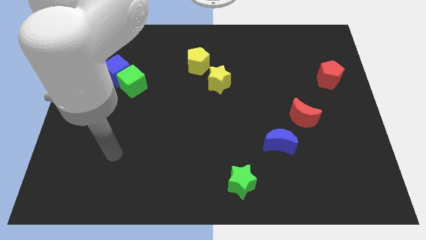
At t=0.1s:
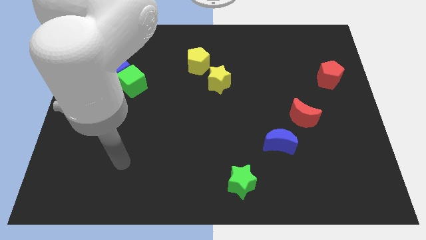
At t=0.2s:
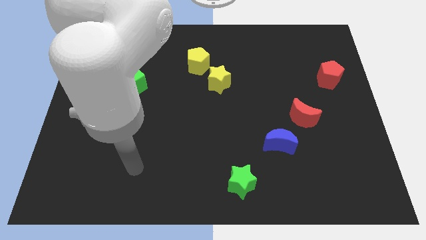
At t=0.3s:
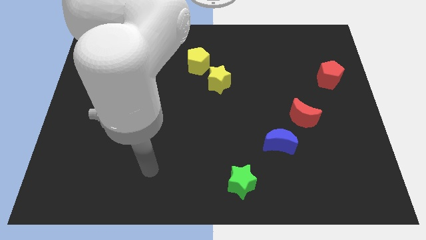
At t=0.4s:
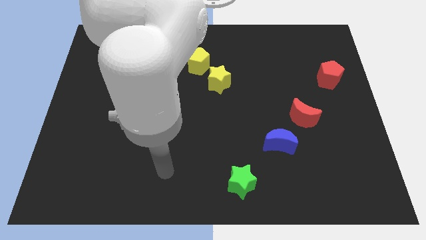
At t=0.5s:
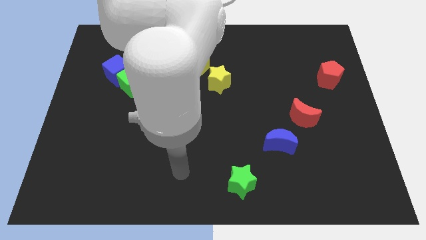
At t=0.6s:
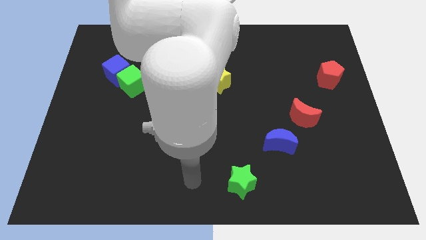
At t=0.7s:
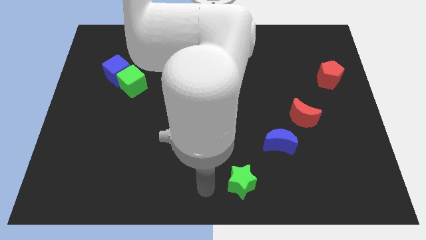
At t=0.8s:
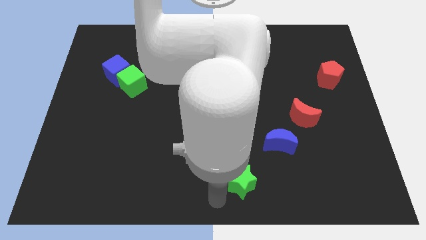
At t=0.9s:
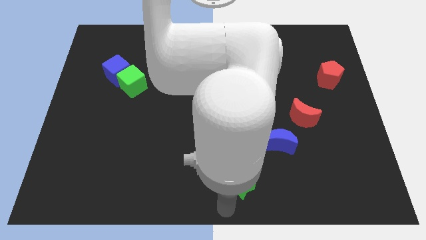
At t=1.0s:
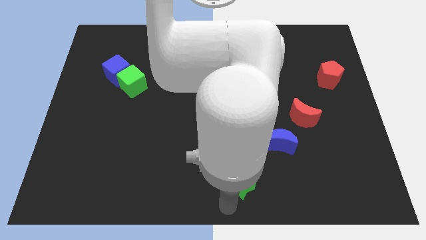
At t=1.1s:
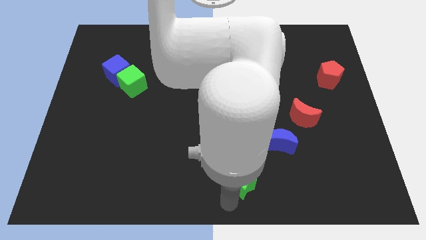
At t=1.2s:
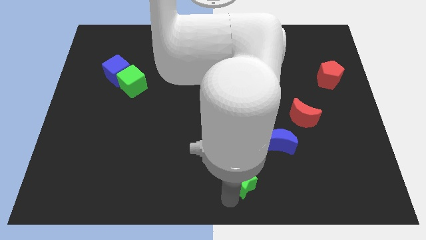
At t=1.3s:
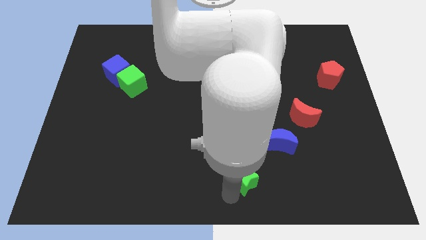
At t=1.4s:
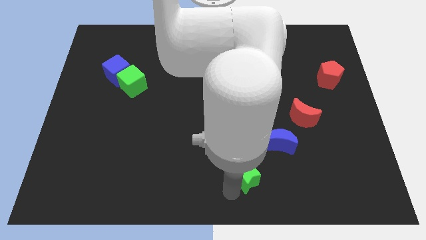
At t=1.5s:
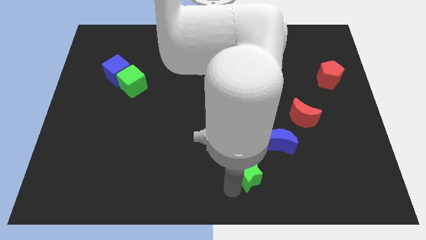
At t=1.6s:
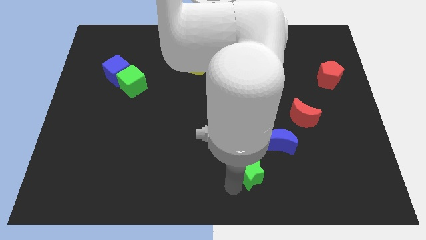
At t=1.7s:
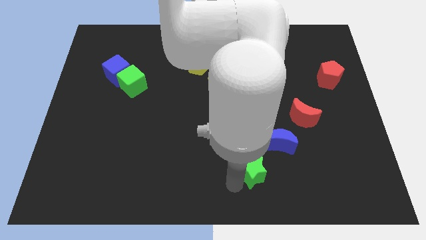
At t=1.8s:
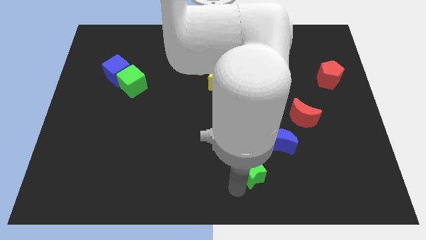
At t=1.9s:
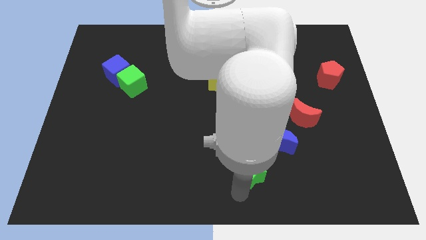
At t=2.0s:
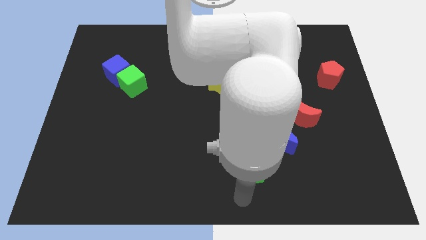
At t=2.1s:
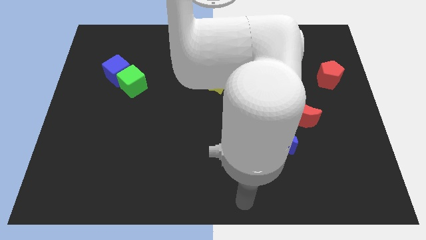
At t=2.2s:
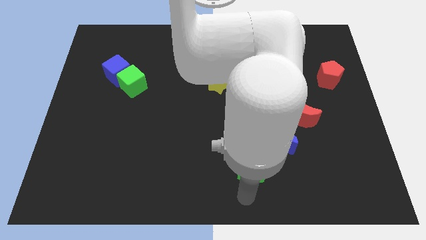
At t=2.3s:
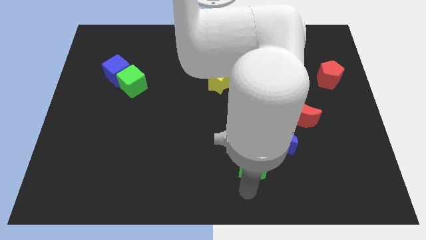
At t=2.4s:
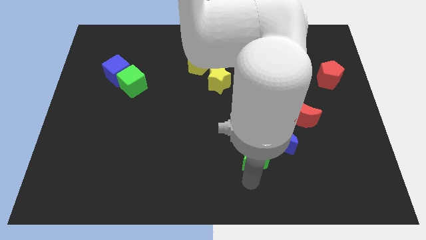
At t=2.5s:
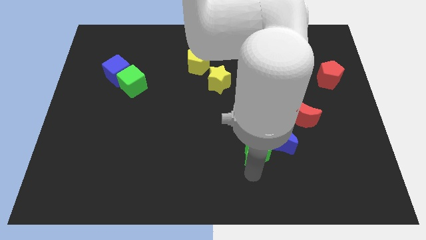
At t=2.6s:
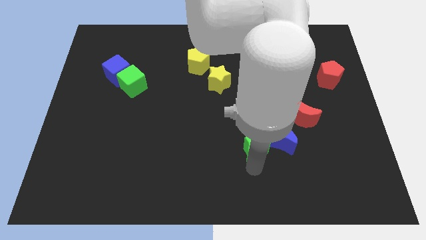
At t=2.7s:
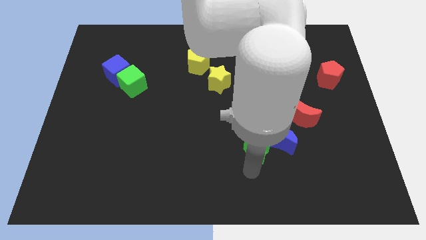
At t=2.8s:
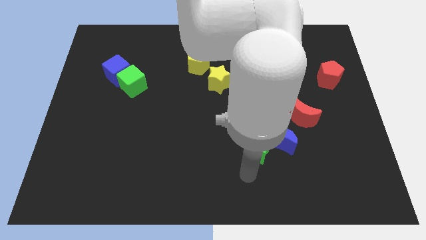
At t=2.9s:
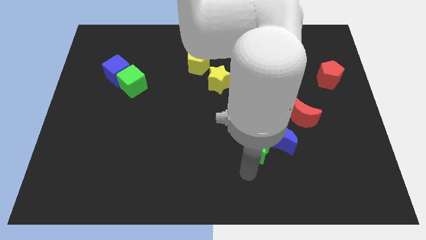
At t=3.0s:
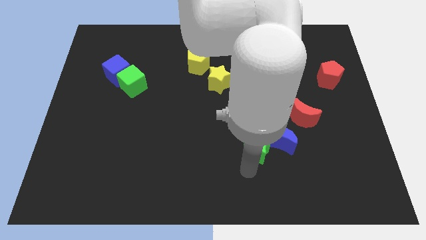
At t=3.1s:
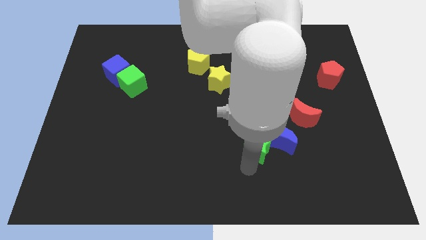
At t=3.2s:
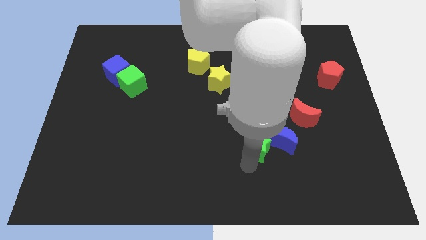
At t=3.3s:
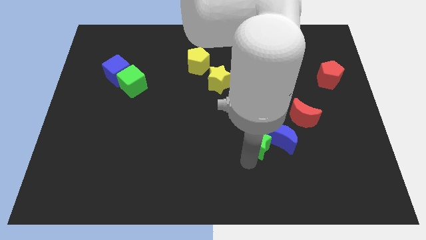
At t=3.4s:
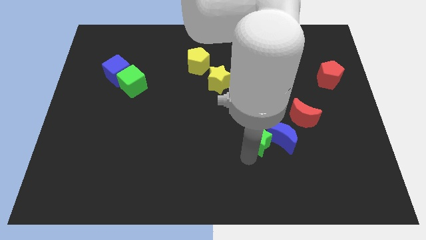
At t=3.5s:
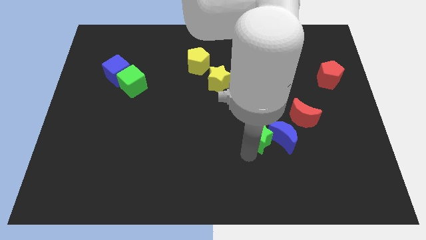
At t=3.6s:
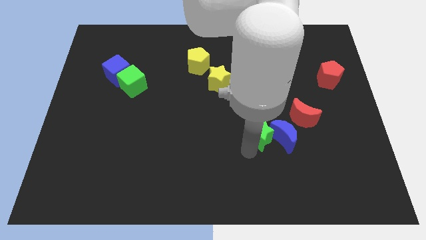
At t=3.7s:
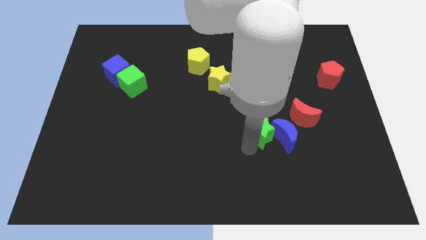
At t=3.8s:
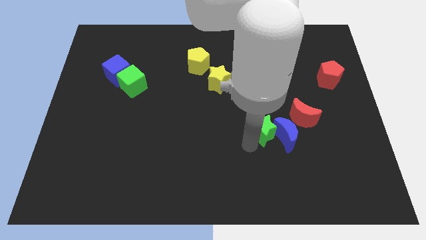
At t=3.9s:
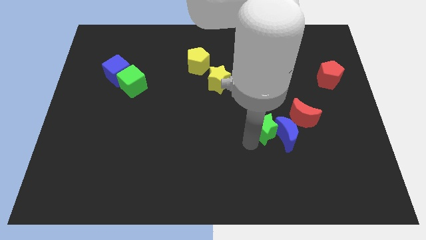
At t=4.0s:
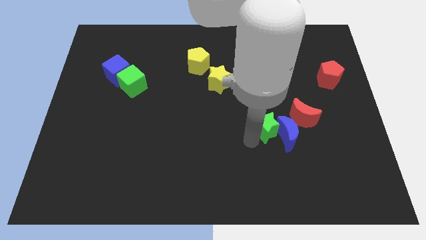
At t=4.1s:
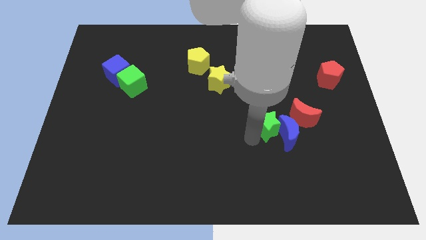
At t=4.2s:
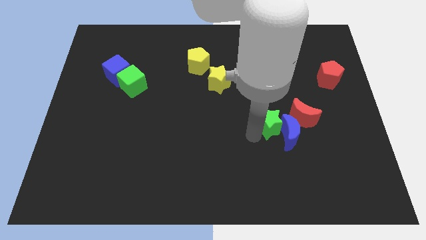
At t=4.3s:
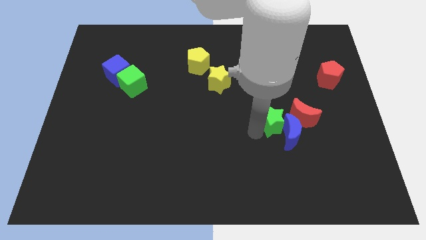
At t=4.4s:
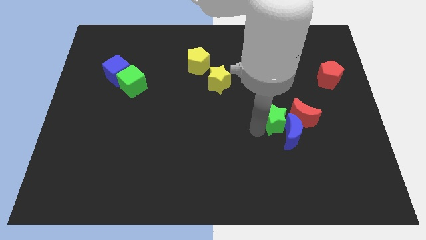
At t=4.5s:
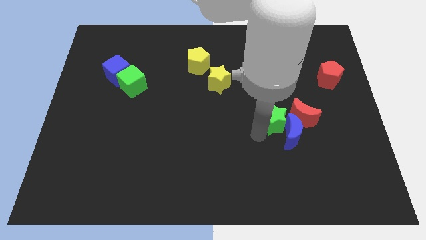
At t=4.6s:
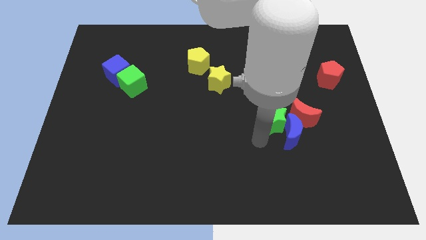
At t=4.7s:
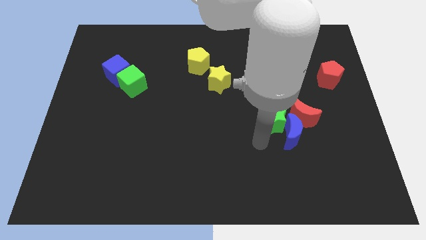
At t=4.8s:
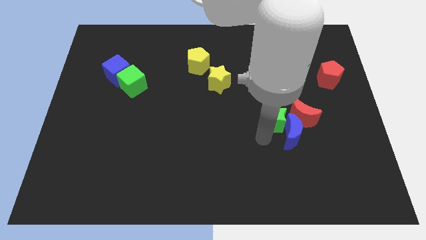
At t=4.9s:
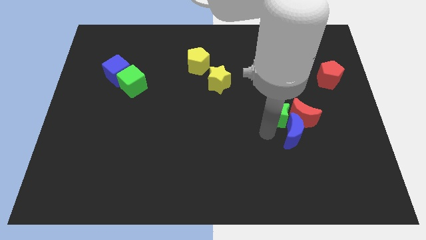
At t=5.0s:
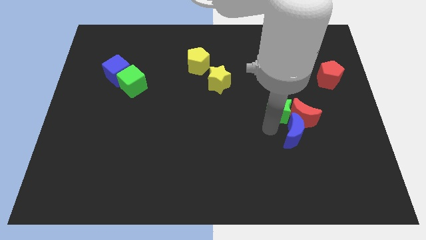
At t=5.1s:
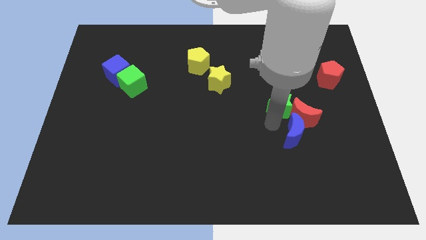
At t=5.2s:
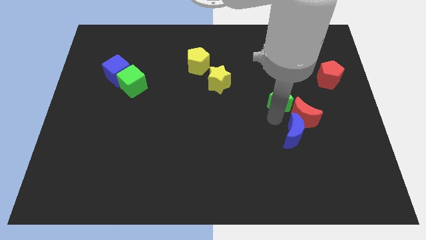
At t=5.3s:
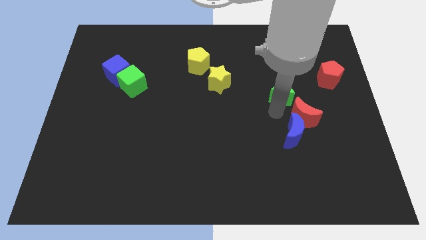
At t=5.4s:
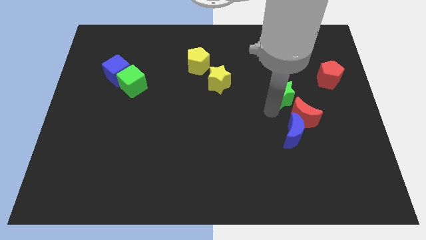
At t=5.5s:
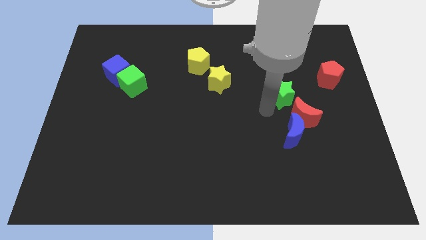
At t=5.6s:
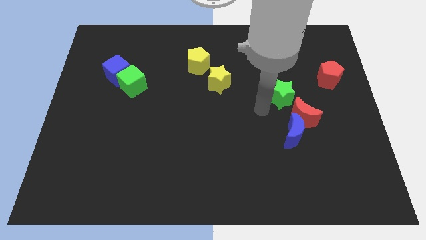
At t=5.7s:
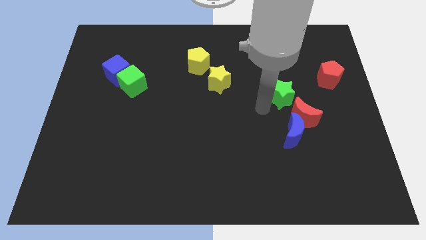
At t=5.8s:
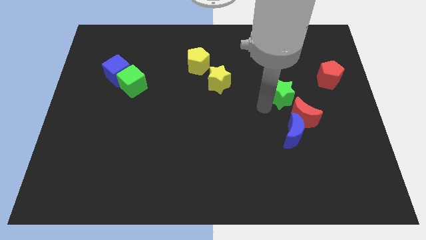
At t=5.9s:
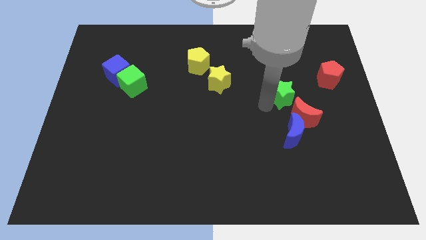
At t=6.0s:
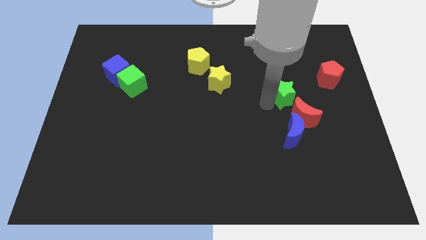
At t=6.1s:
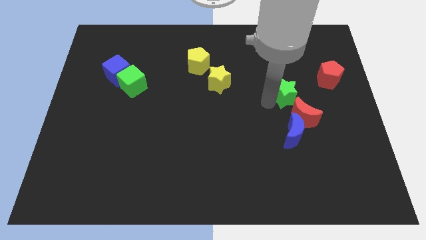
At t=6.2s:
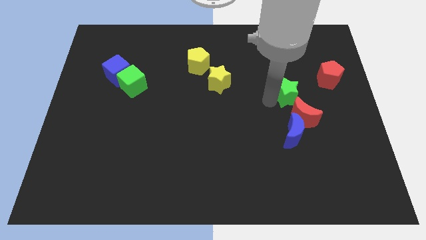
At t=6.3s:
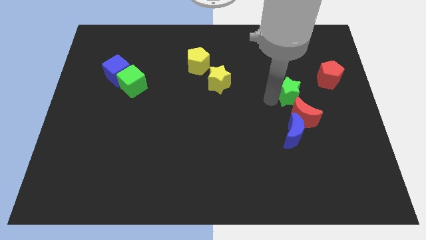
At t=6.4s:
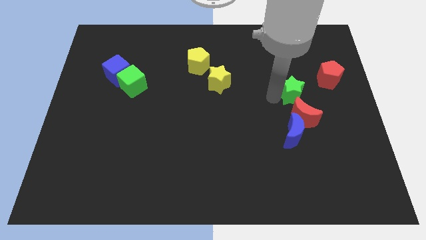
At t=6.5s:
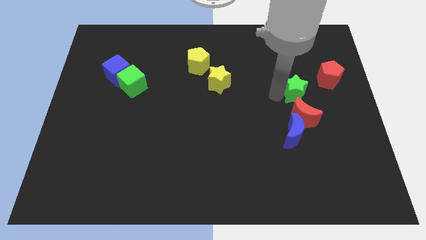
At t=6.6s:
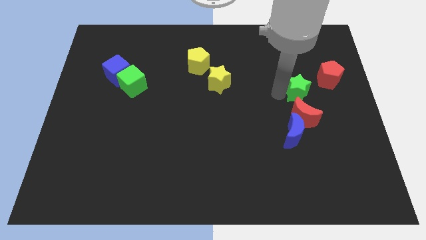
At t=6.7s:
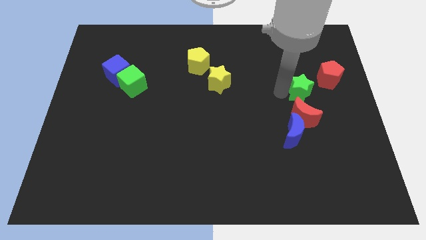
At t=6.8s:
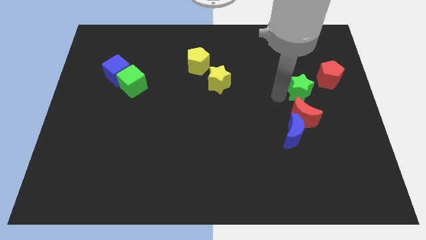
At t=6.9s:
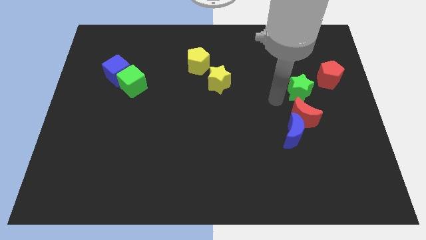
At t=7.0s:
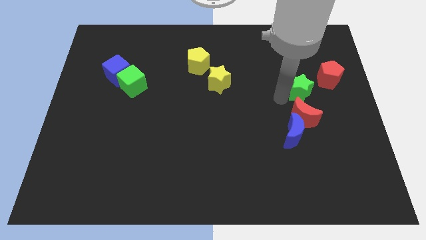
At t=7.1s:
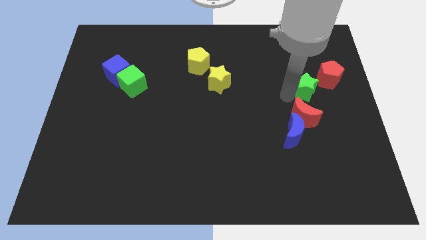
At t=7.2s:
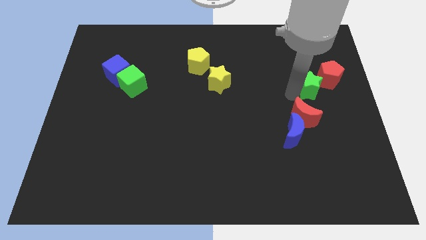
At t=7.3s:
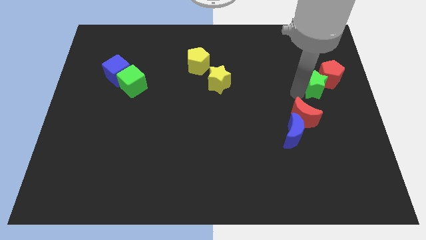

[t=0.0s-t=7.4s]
push the green star towards the red pentagon

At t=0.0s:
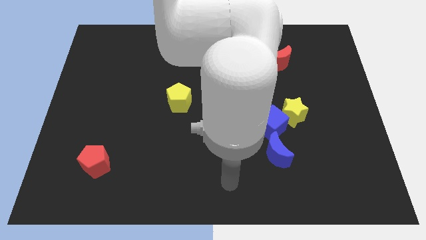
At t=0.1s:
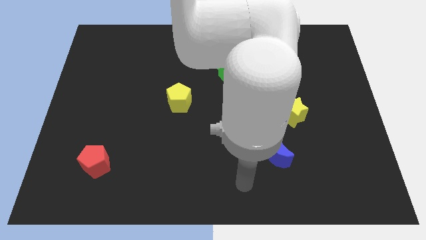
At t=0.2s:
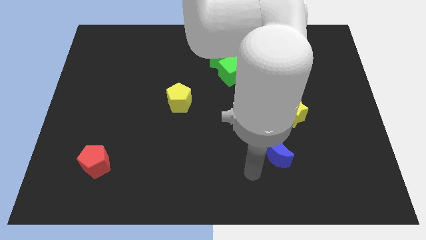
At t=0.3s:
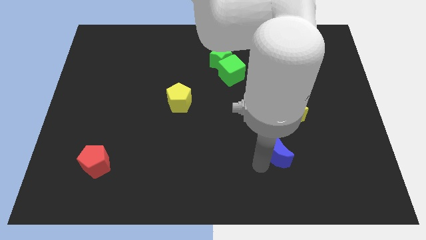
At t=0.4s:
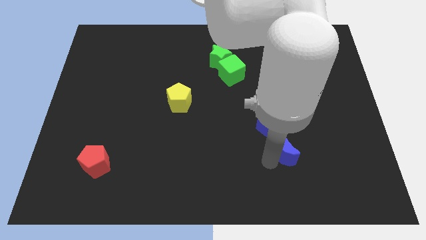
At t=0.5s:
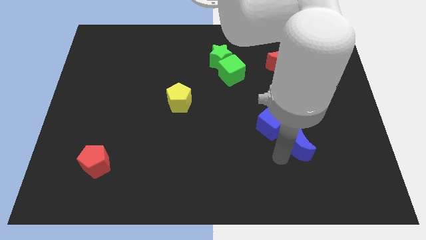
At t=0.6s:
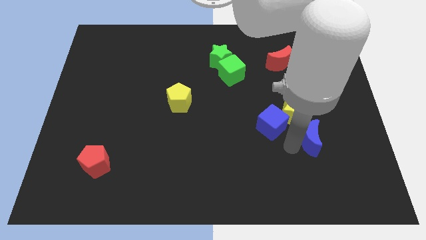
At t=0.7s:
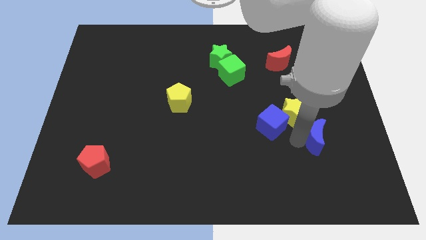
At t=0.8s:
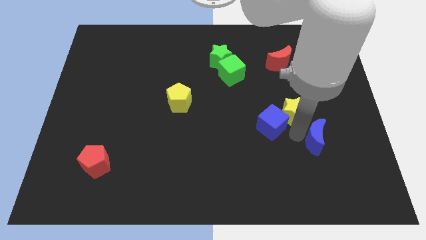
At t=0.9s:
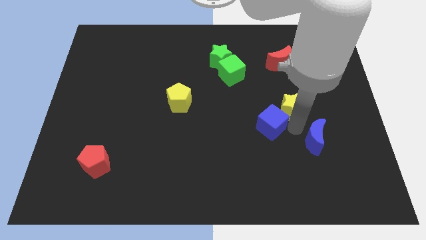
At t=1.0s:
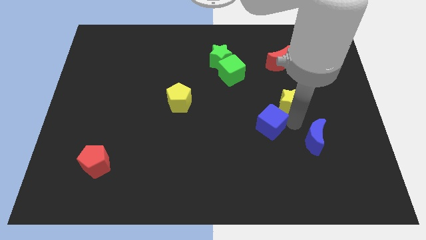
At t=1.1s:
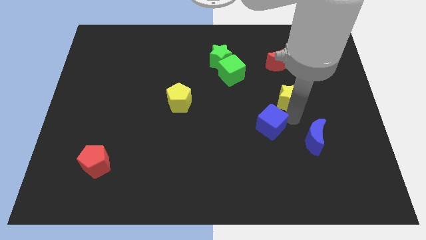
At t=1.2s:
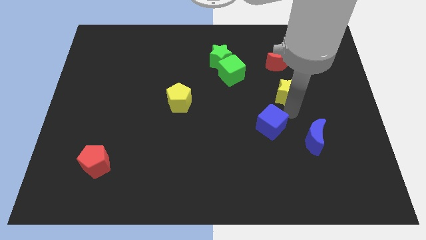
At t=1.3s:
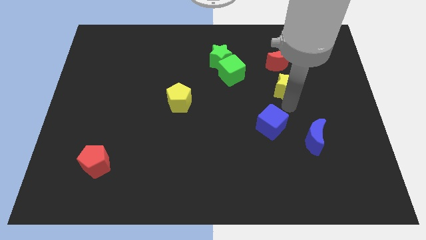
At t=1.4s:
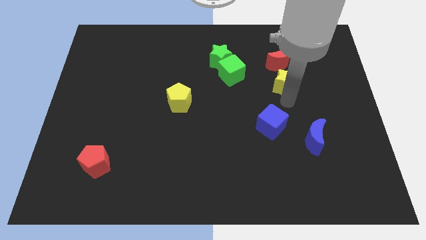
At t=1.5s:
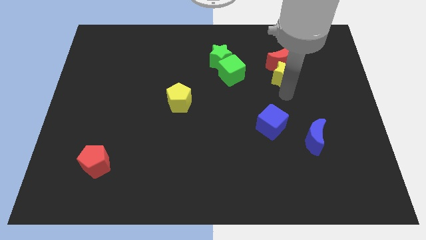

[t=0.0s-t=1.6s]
slide the yellow star close to the red moon
